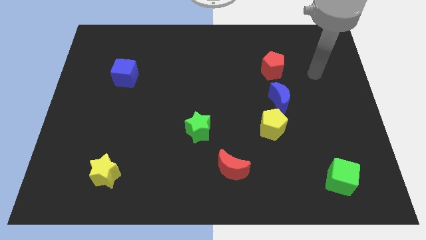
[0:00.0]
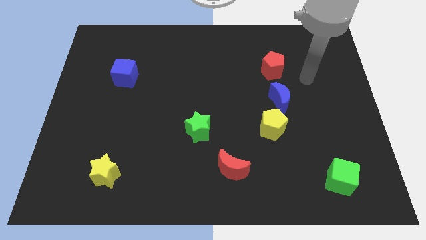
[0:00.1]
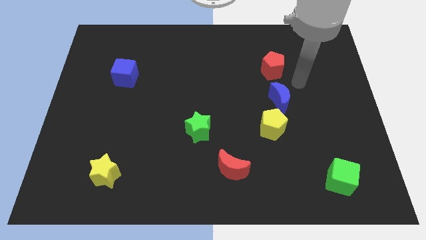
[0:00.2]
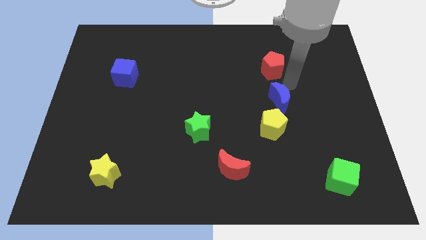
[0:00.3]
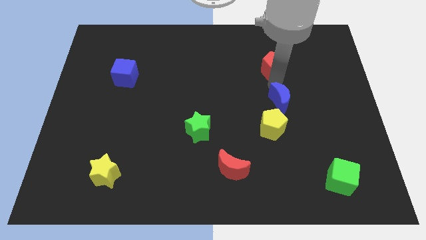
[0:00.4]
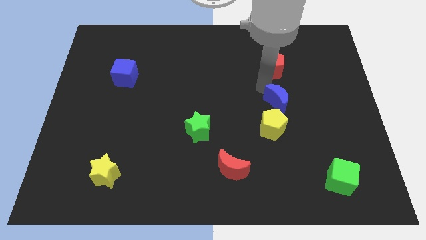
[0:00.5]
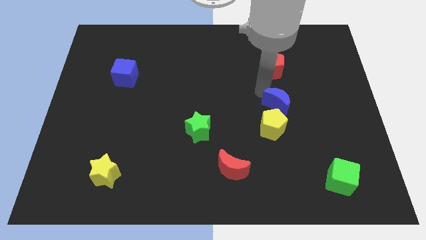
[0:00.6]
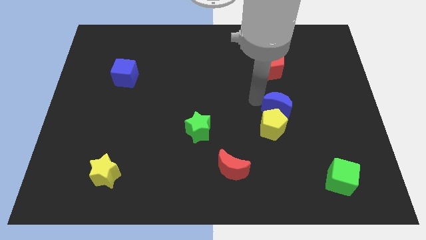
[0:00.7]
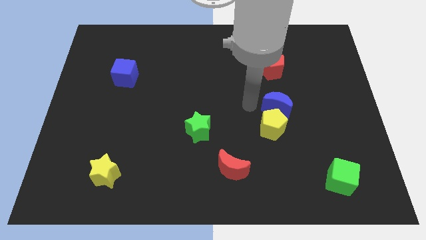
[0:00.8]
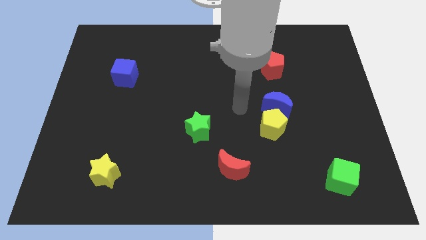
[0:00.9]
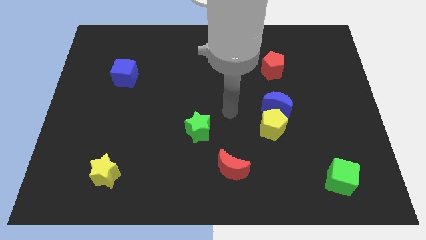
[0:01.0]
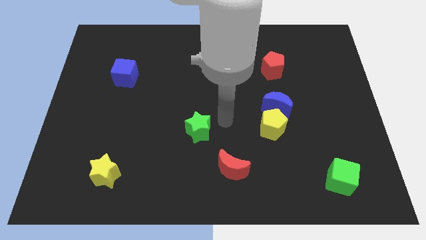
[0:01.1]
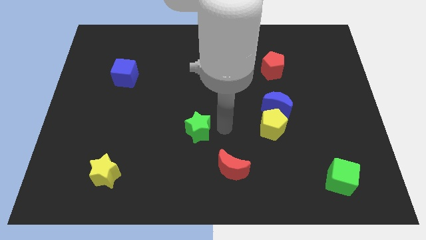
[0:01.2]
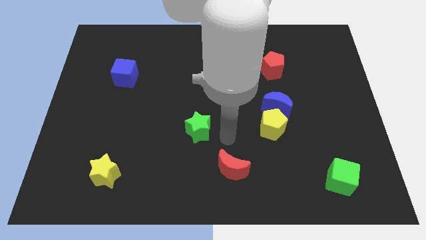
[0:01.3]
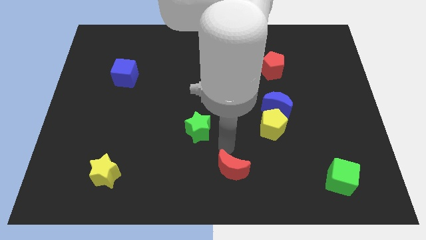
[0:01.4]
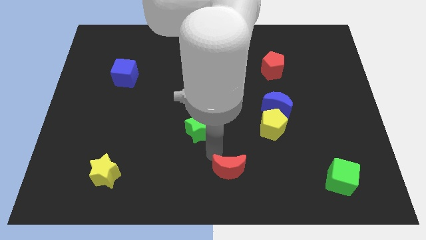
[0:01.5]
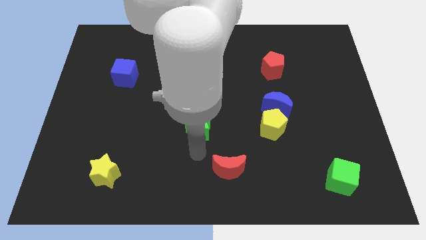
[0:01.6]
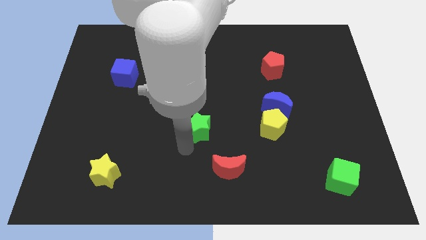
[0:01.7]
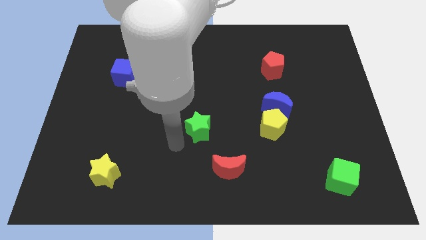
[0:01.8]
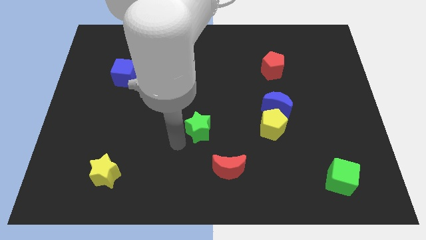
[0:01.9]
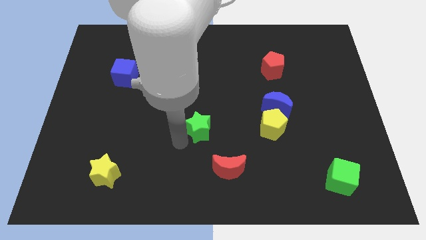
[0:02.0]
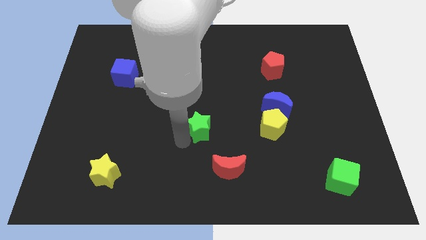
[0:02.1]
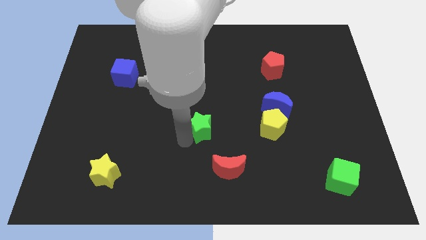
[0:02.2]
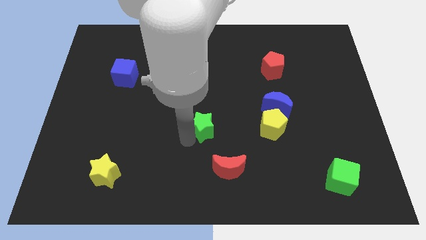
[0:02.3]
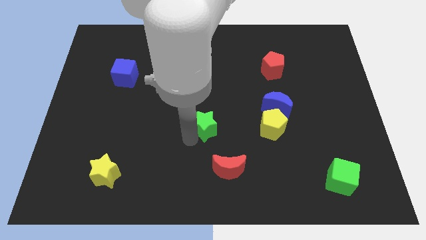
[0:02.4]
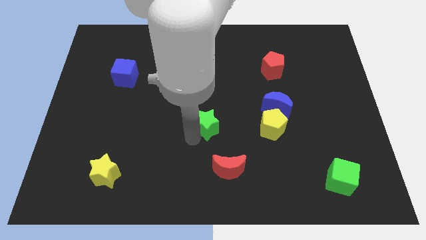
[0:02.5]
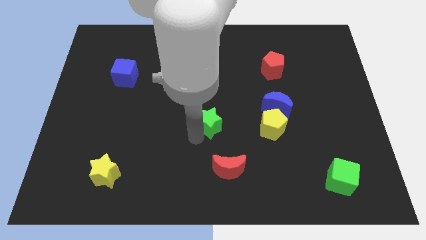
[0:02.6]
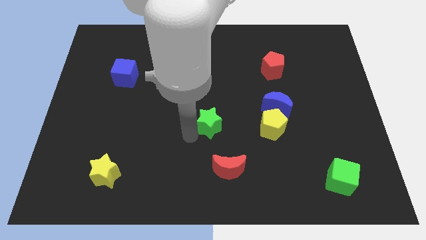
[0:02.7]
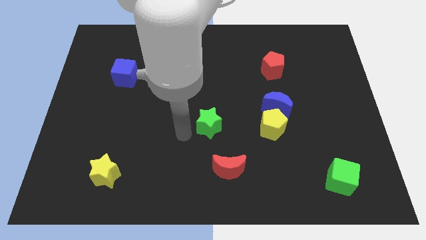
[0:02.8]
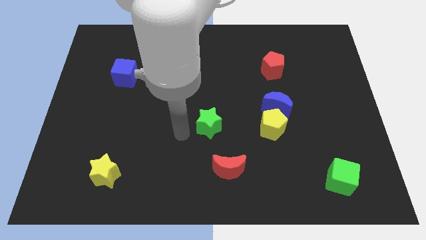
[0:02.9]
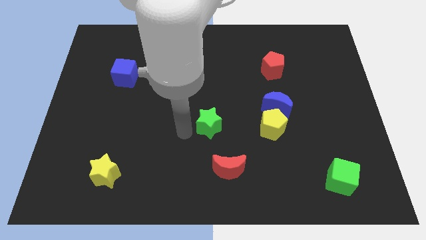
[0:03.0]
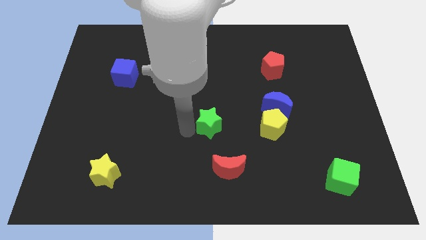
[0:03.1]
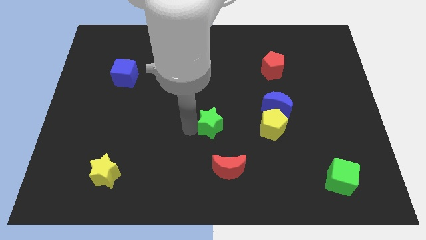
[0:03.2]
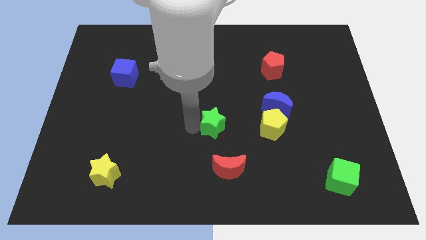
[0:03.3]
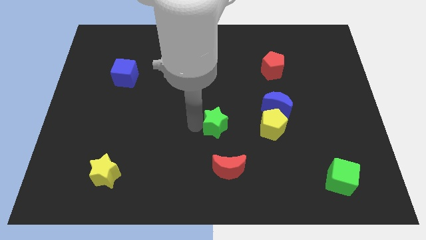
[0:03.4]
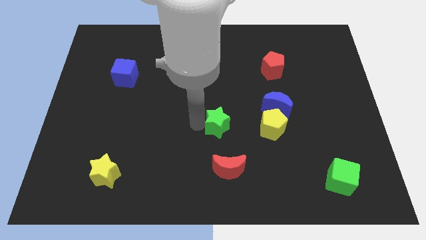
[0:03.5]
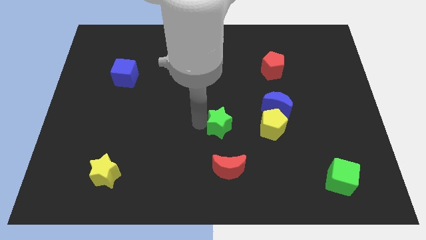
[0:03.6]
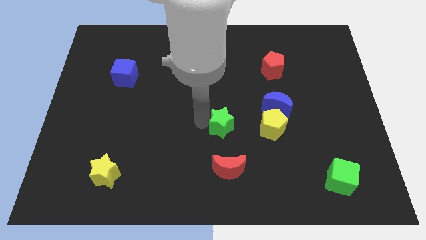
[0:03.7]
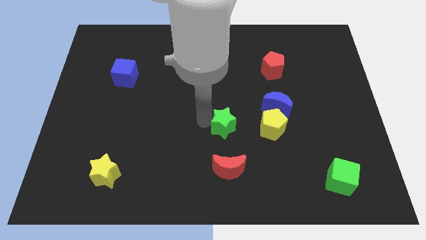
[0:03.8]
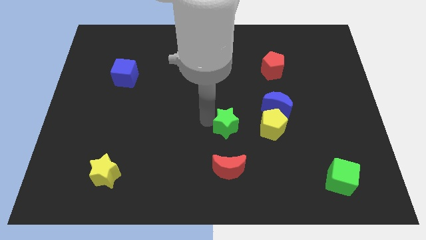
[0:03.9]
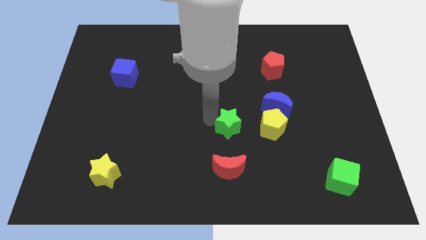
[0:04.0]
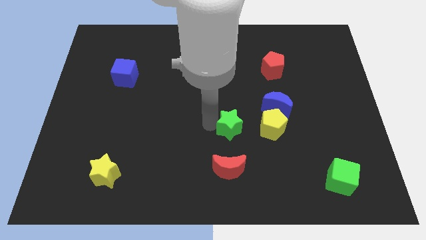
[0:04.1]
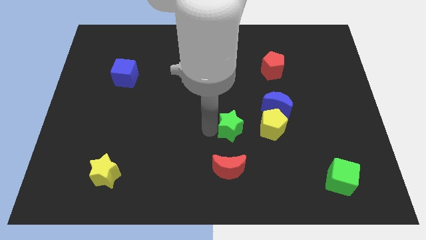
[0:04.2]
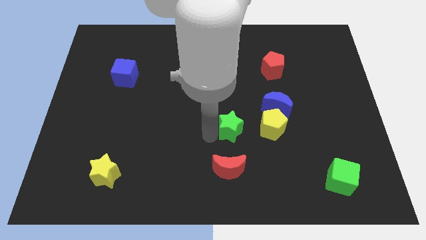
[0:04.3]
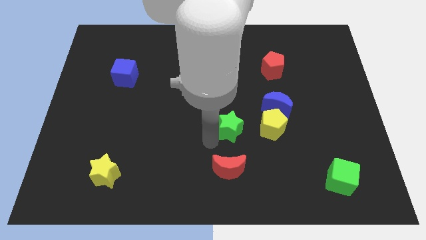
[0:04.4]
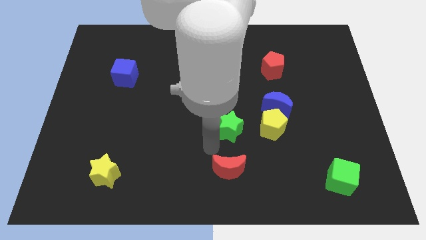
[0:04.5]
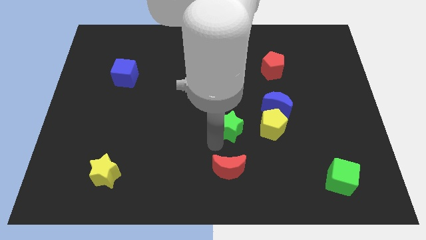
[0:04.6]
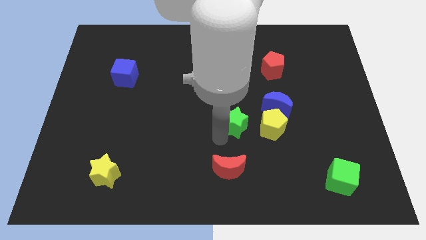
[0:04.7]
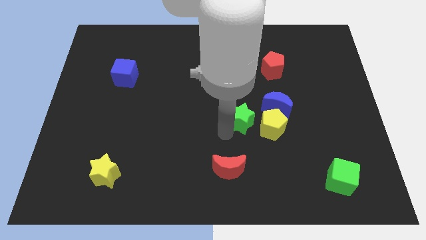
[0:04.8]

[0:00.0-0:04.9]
put the green star diagonally up and to the left of the yellow pentagon

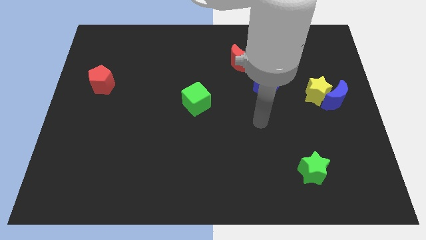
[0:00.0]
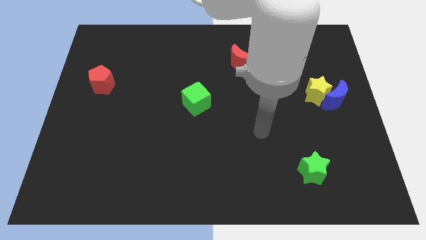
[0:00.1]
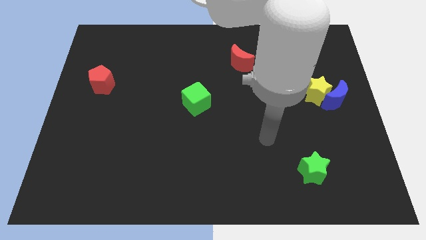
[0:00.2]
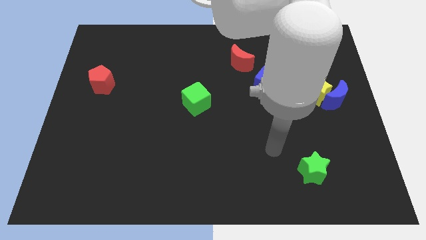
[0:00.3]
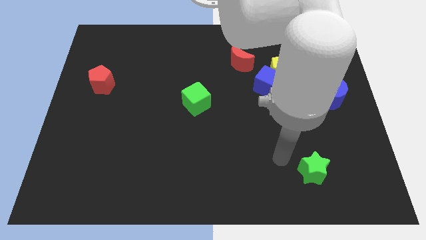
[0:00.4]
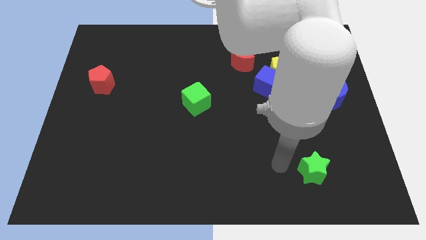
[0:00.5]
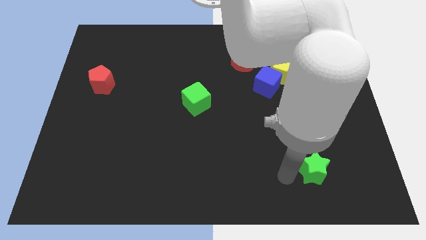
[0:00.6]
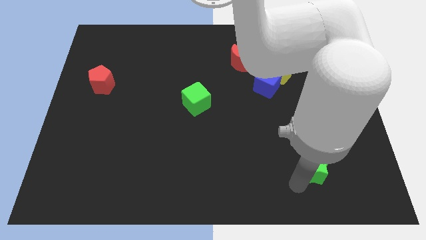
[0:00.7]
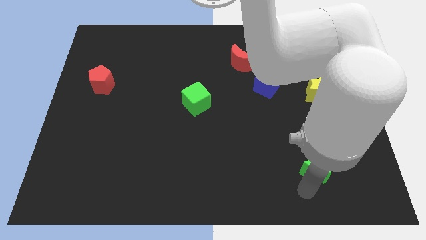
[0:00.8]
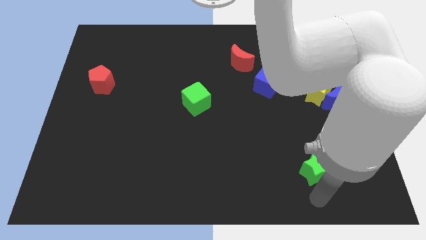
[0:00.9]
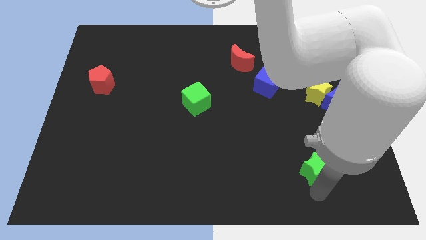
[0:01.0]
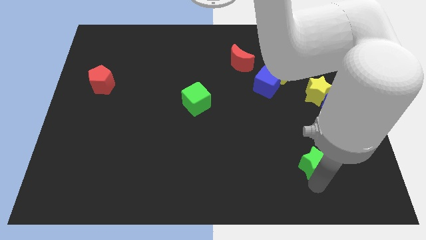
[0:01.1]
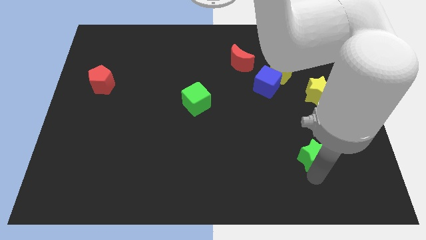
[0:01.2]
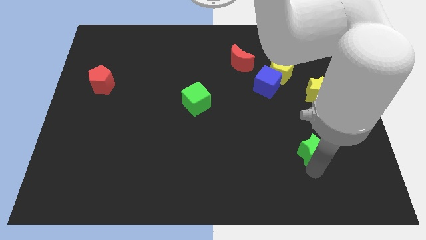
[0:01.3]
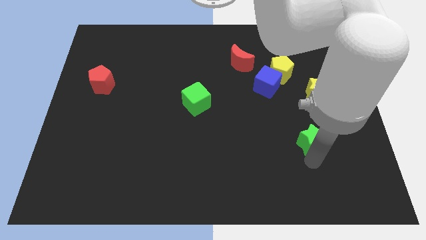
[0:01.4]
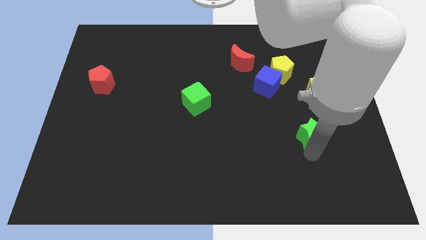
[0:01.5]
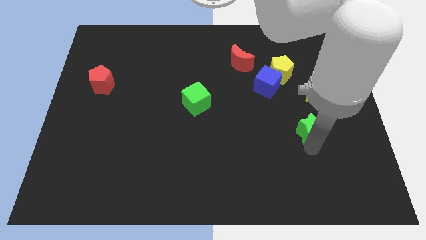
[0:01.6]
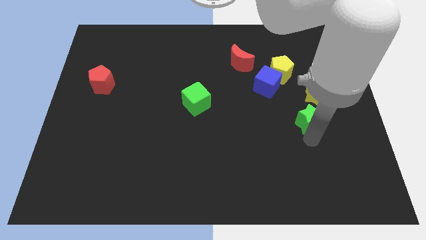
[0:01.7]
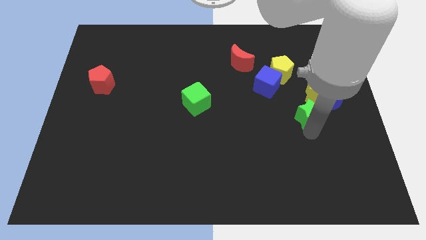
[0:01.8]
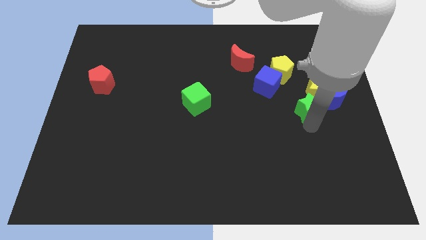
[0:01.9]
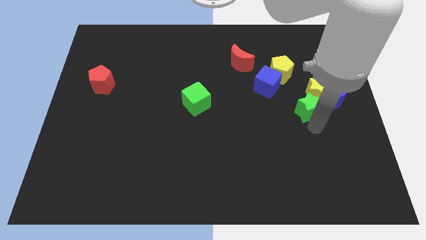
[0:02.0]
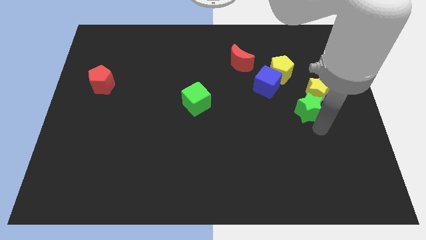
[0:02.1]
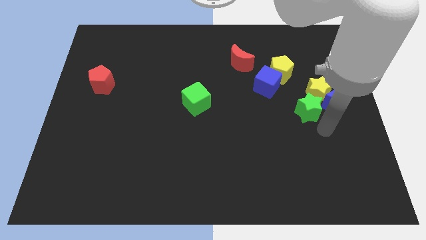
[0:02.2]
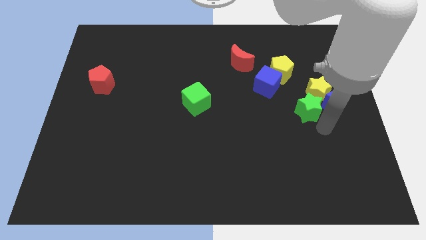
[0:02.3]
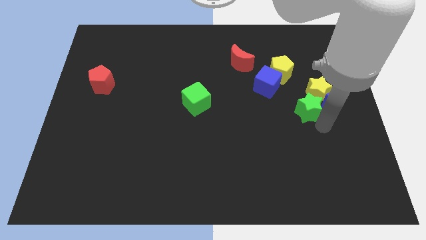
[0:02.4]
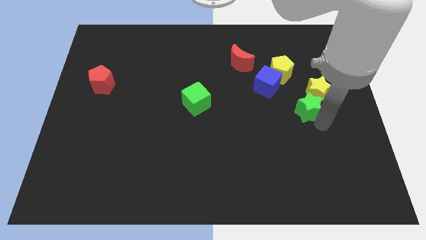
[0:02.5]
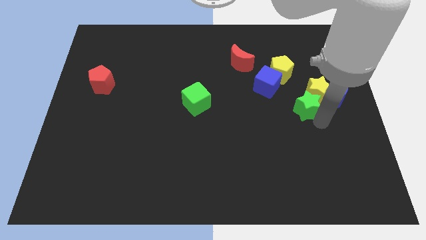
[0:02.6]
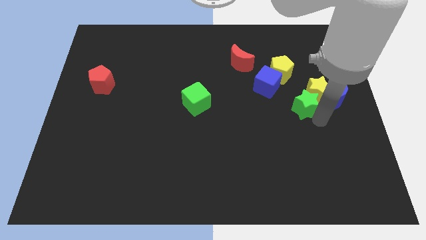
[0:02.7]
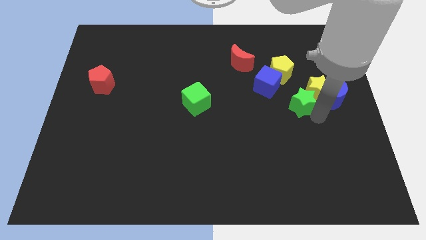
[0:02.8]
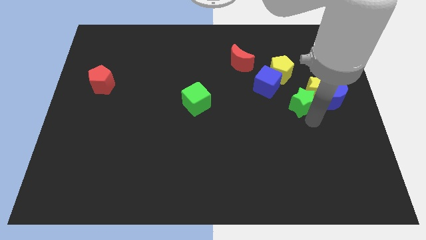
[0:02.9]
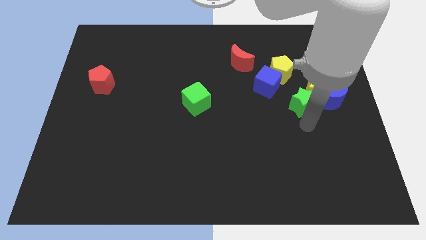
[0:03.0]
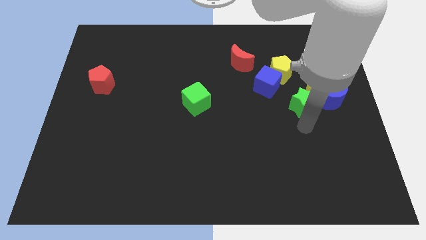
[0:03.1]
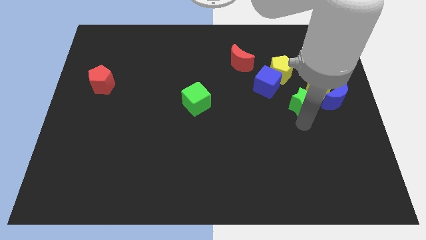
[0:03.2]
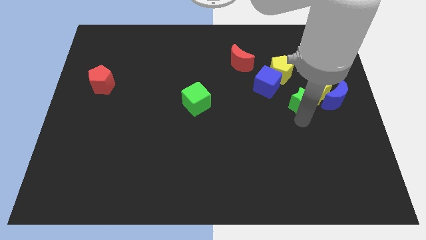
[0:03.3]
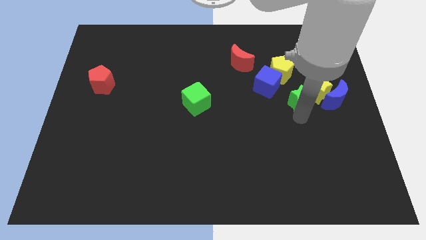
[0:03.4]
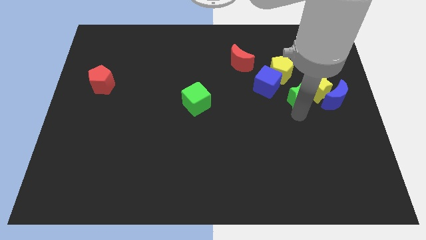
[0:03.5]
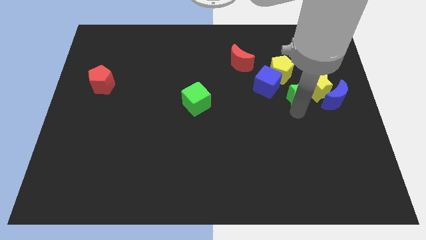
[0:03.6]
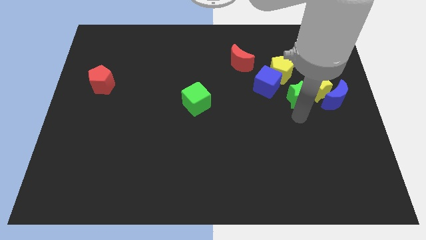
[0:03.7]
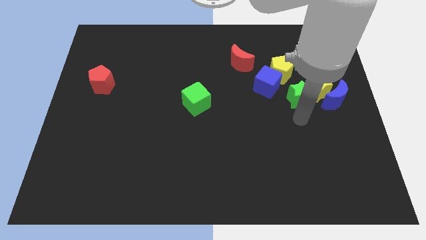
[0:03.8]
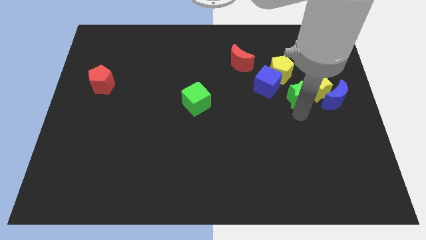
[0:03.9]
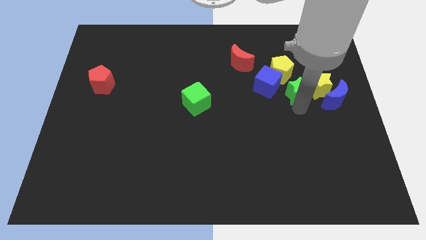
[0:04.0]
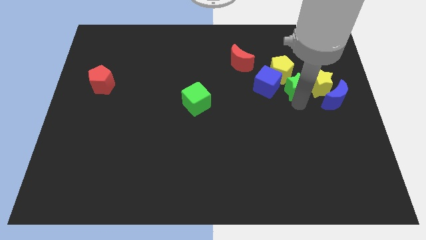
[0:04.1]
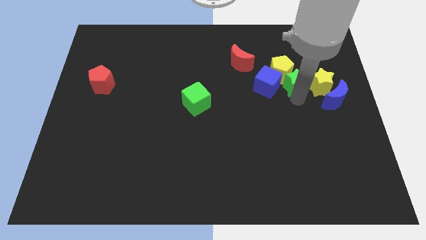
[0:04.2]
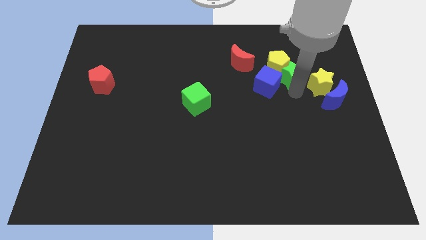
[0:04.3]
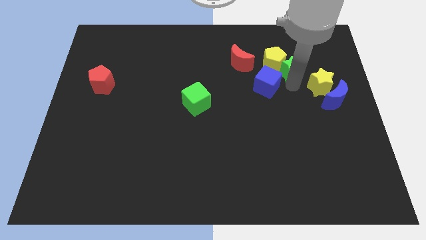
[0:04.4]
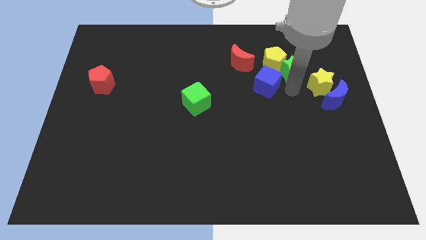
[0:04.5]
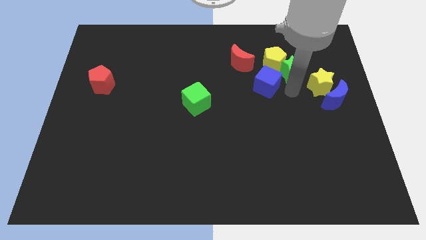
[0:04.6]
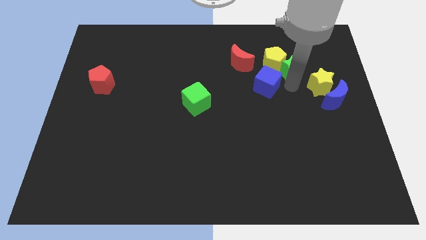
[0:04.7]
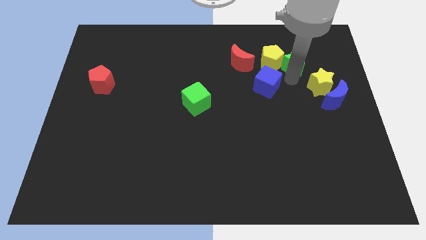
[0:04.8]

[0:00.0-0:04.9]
move the green star to the top right side of the yellow pentagon
